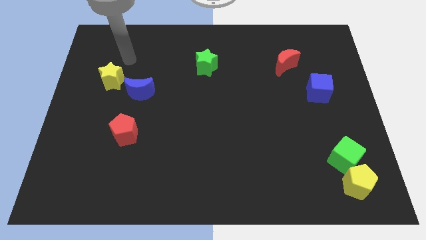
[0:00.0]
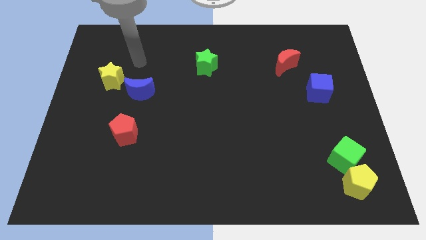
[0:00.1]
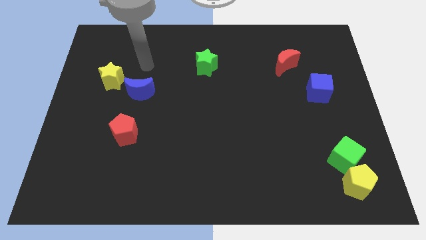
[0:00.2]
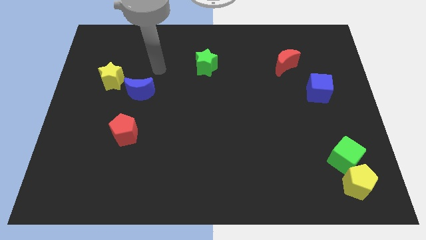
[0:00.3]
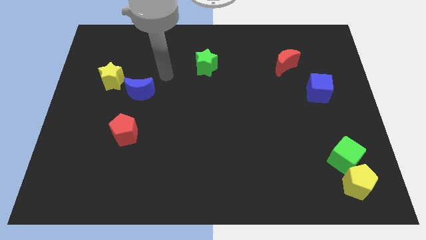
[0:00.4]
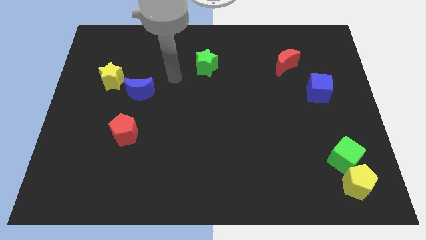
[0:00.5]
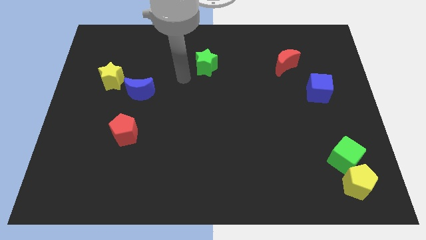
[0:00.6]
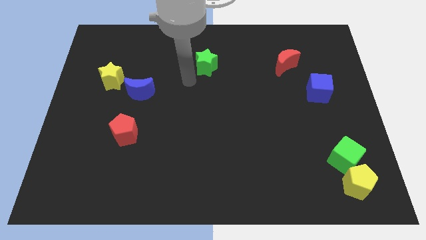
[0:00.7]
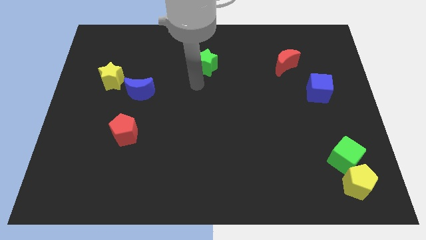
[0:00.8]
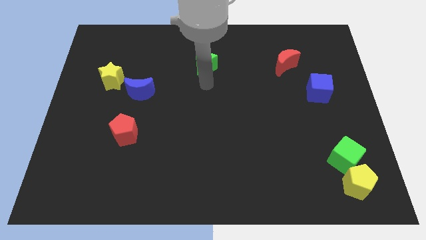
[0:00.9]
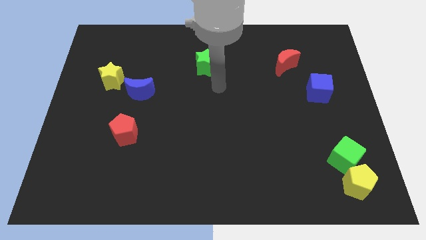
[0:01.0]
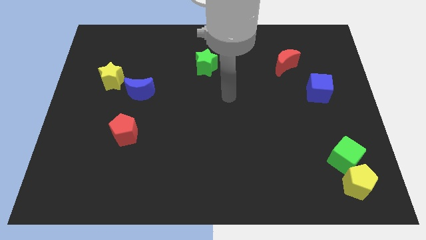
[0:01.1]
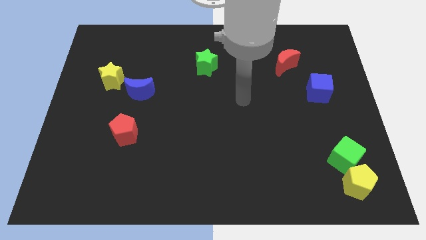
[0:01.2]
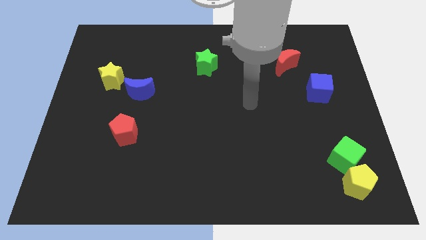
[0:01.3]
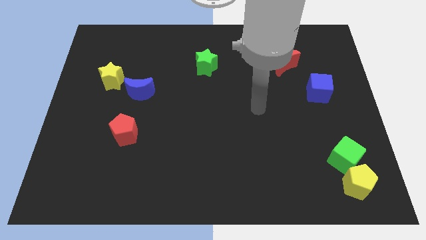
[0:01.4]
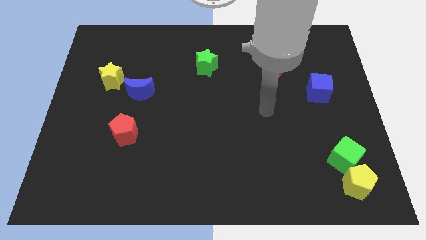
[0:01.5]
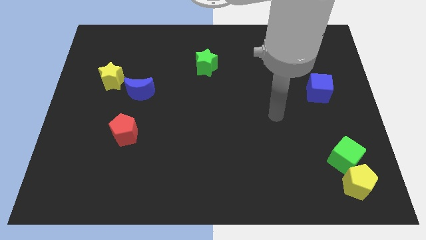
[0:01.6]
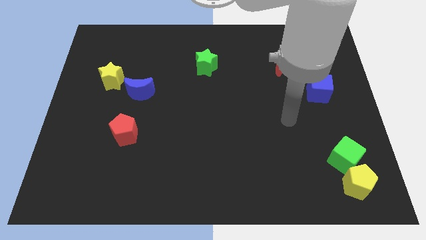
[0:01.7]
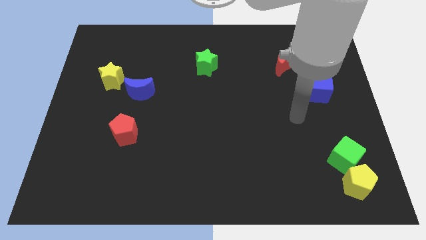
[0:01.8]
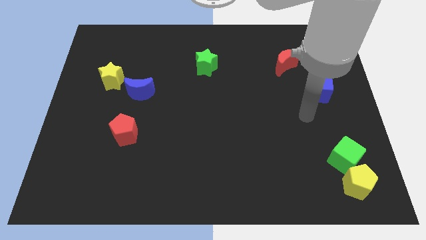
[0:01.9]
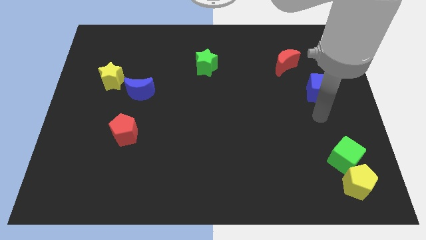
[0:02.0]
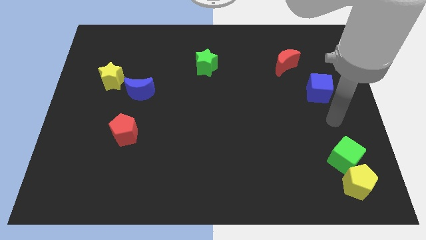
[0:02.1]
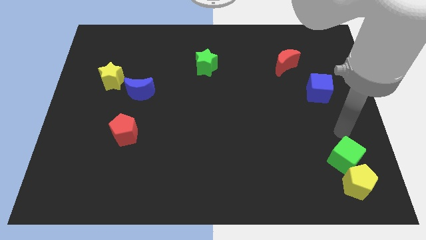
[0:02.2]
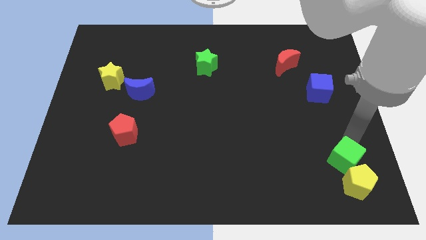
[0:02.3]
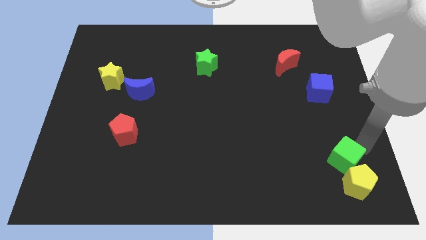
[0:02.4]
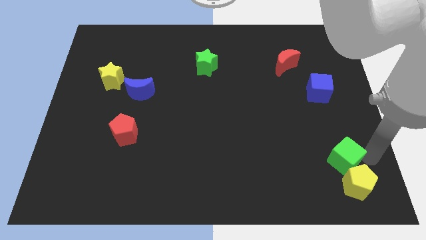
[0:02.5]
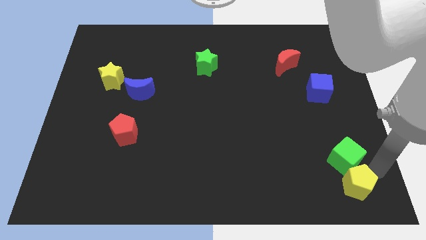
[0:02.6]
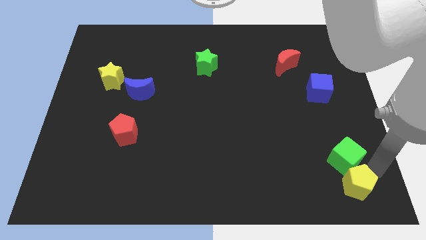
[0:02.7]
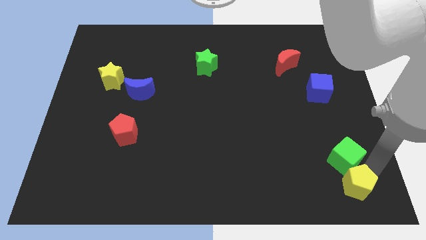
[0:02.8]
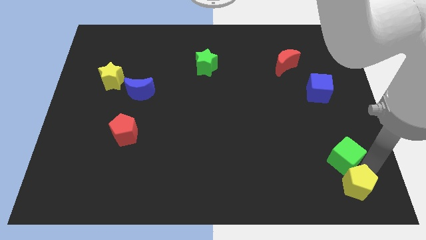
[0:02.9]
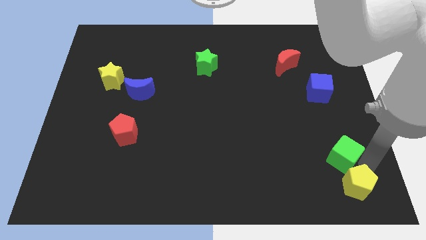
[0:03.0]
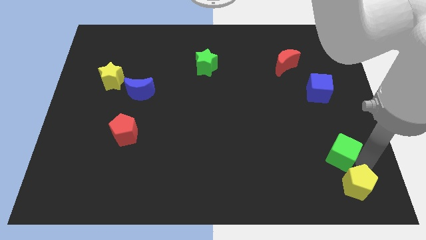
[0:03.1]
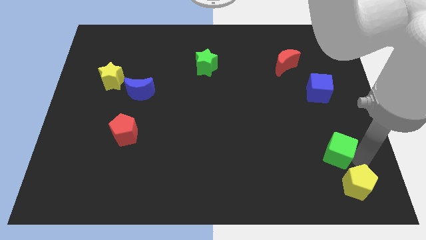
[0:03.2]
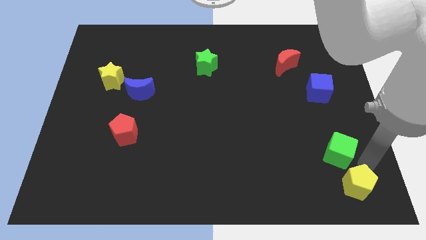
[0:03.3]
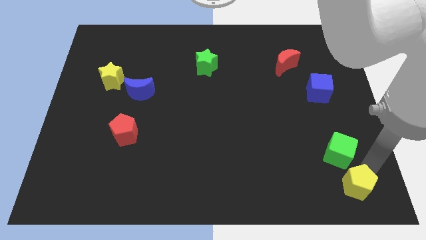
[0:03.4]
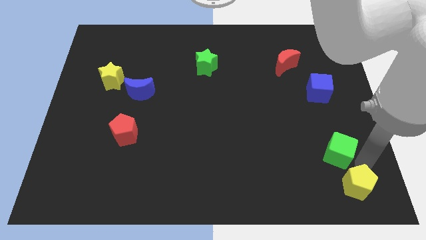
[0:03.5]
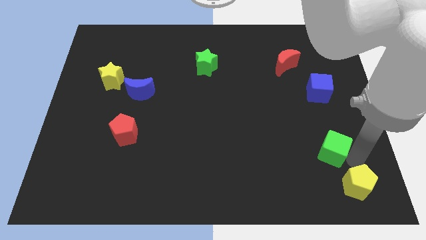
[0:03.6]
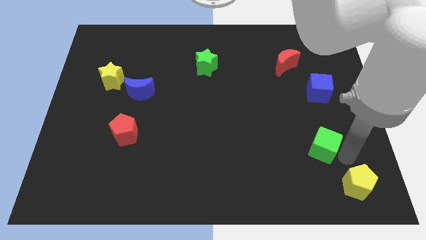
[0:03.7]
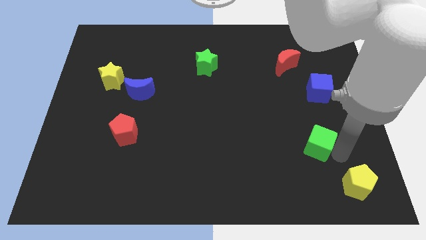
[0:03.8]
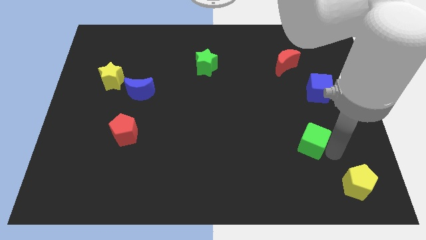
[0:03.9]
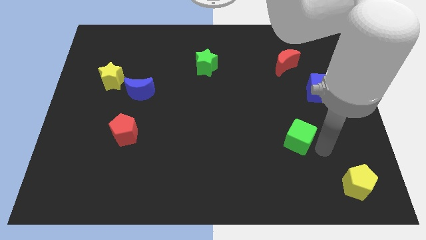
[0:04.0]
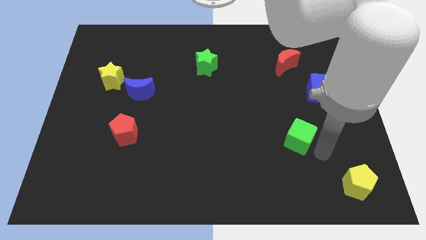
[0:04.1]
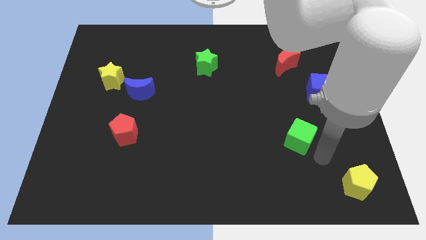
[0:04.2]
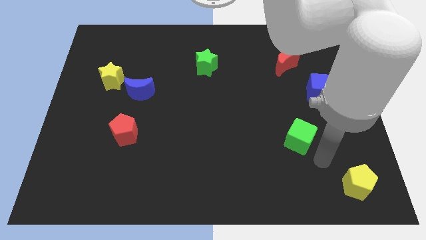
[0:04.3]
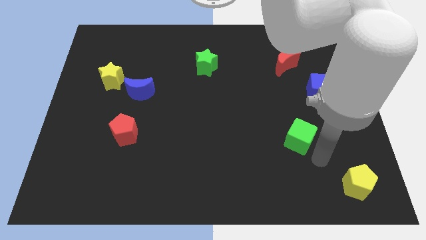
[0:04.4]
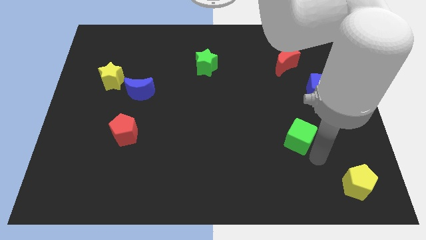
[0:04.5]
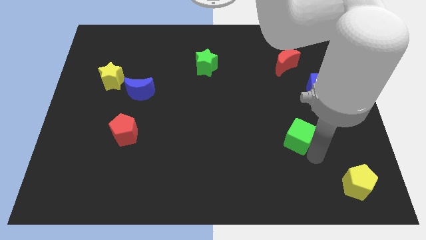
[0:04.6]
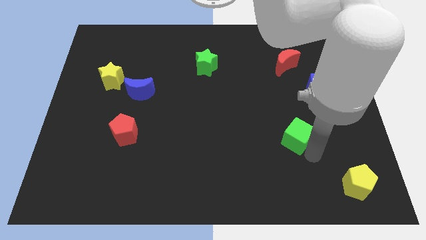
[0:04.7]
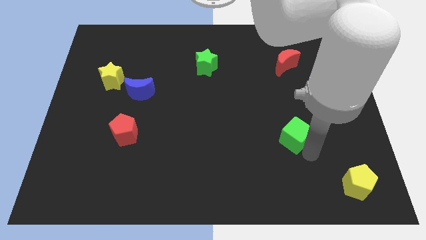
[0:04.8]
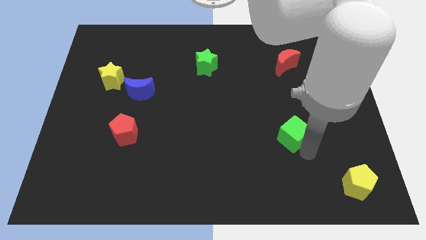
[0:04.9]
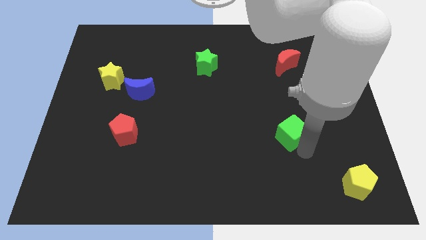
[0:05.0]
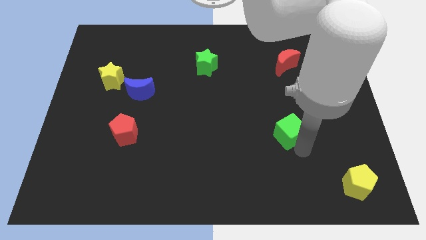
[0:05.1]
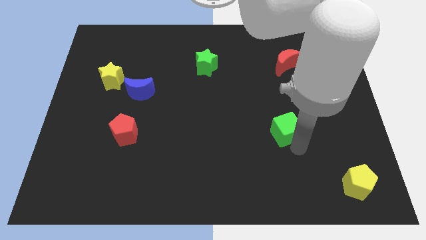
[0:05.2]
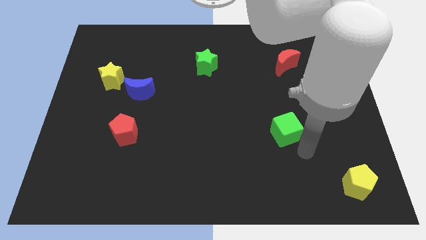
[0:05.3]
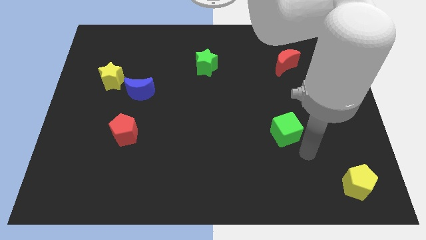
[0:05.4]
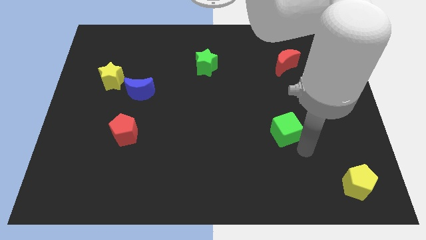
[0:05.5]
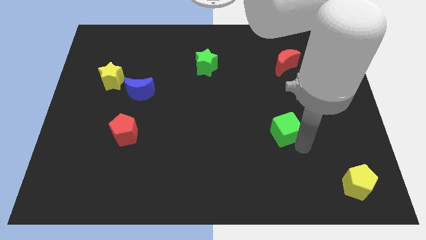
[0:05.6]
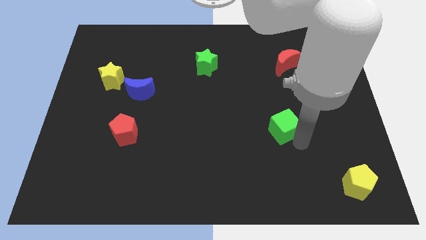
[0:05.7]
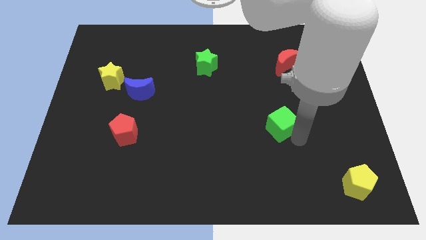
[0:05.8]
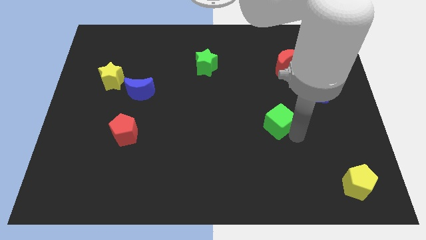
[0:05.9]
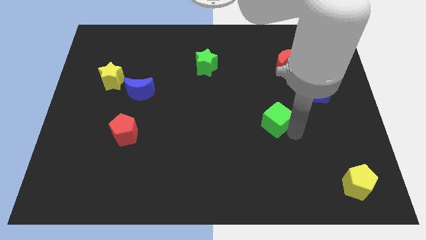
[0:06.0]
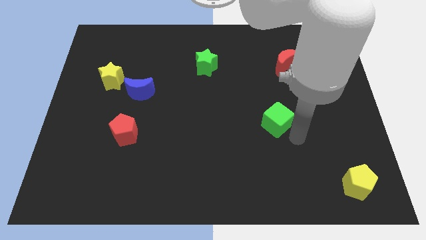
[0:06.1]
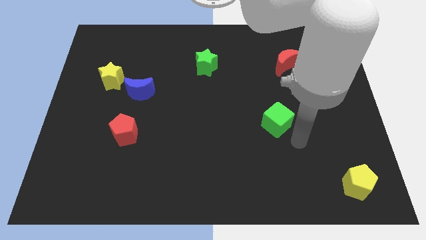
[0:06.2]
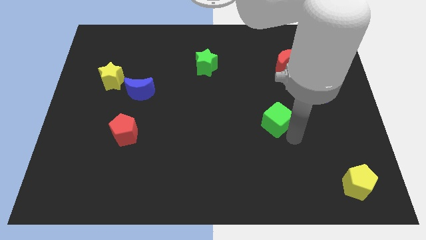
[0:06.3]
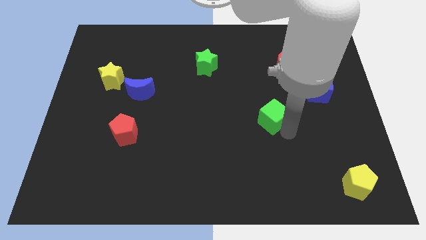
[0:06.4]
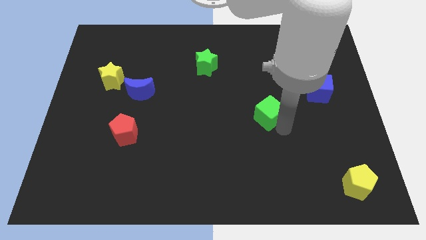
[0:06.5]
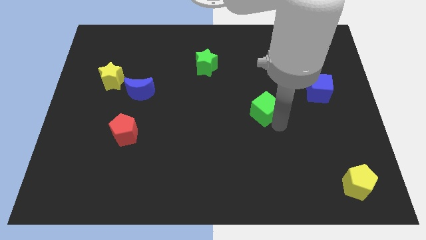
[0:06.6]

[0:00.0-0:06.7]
move the green cube up and to the left

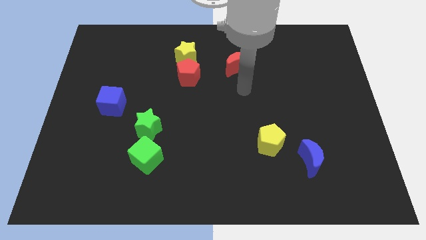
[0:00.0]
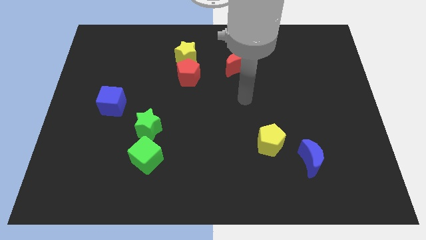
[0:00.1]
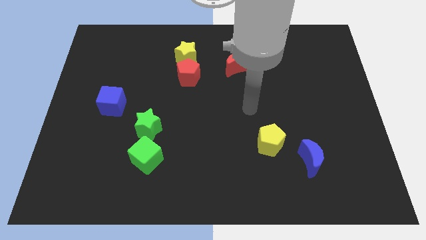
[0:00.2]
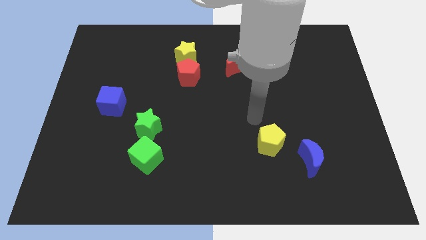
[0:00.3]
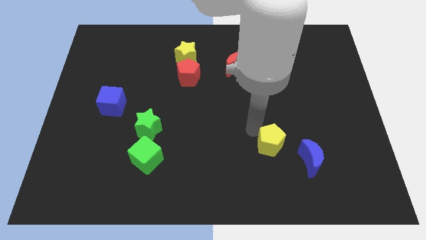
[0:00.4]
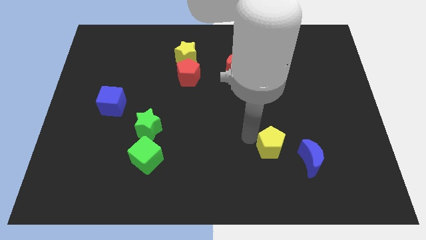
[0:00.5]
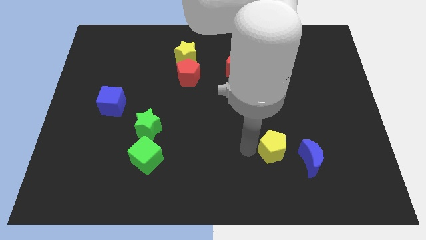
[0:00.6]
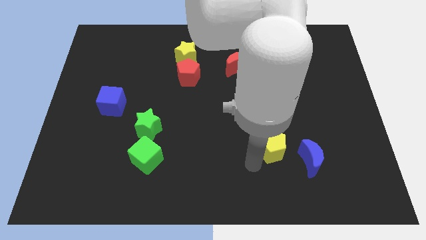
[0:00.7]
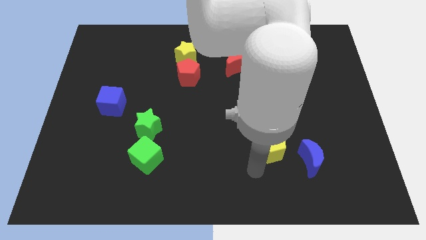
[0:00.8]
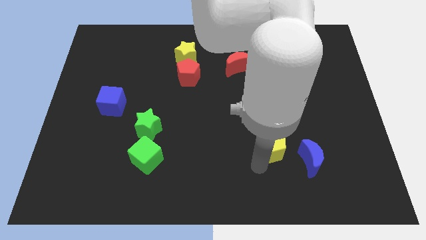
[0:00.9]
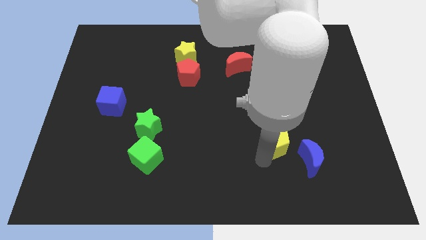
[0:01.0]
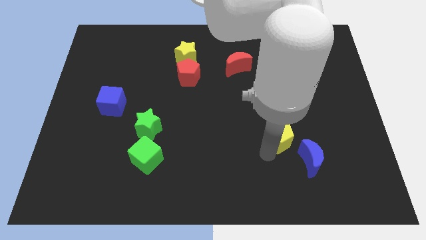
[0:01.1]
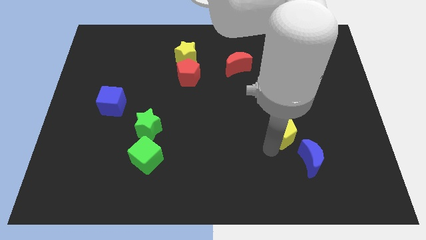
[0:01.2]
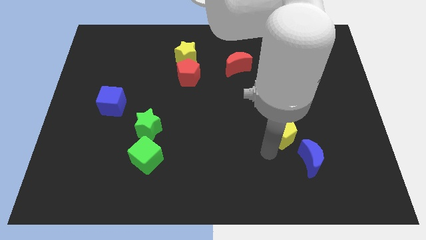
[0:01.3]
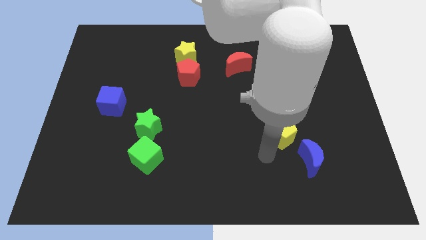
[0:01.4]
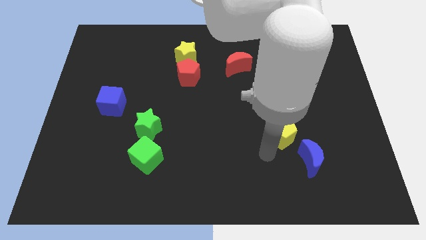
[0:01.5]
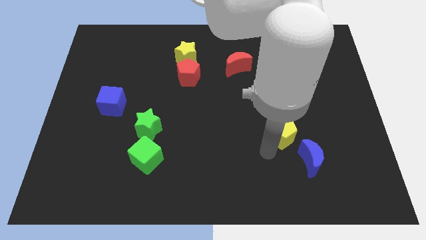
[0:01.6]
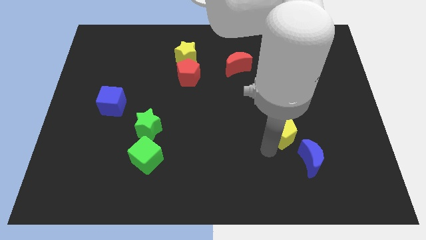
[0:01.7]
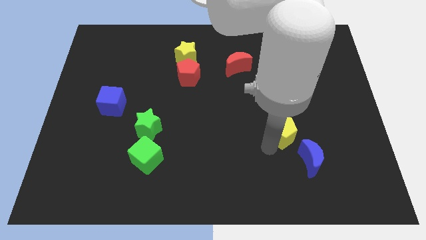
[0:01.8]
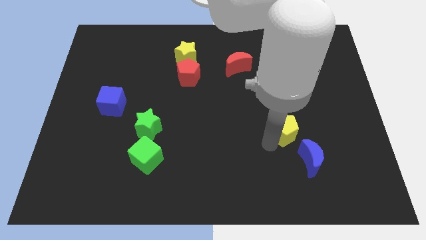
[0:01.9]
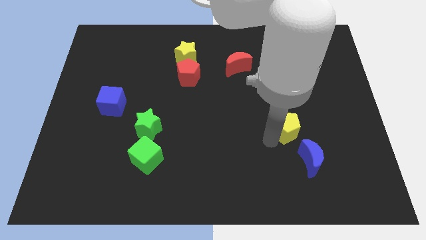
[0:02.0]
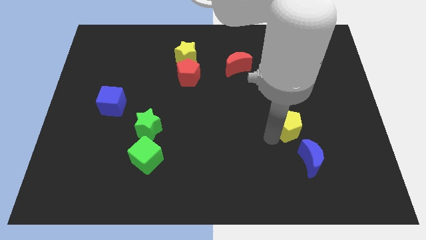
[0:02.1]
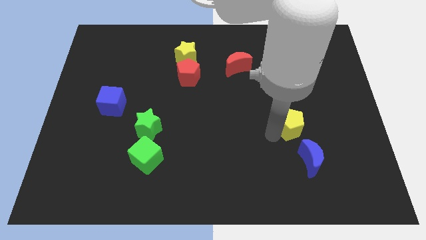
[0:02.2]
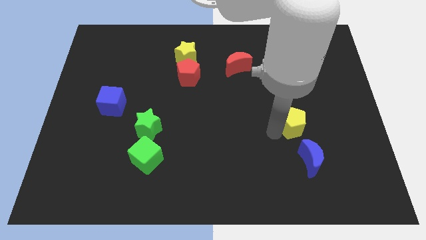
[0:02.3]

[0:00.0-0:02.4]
slightly slide the yellow pentagon upwards and then to the right
